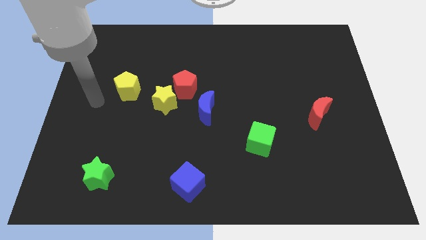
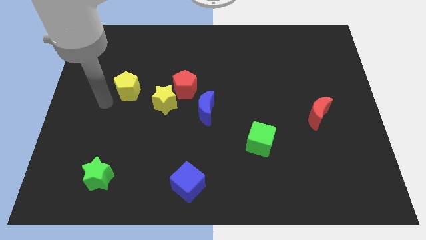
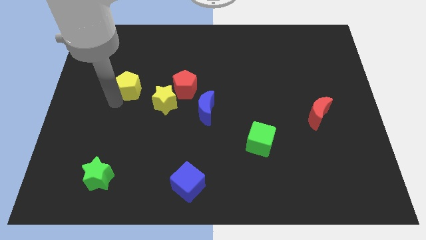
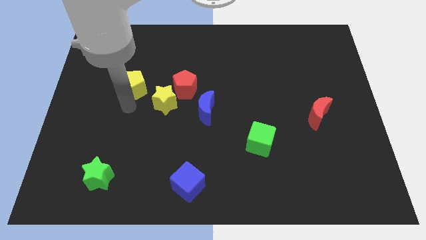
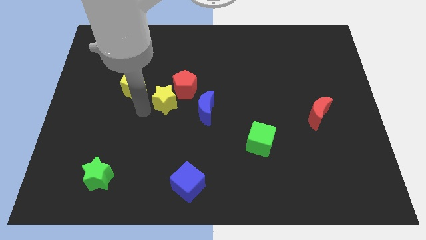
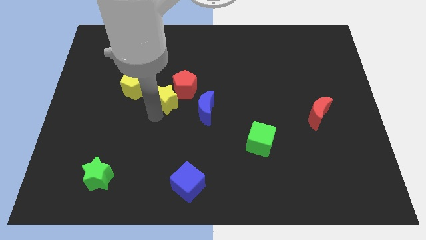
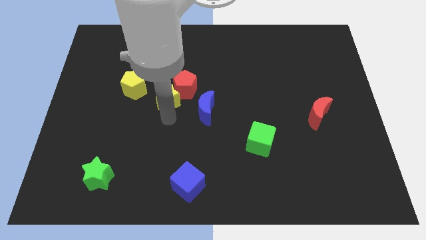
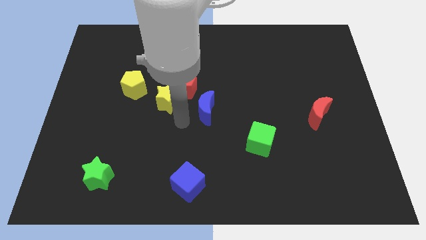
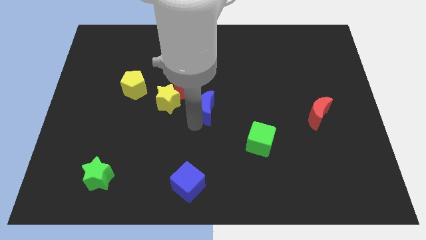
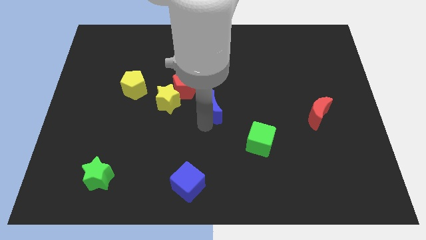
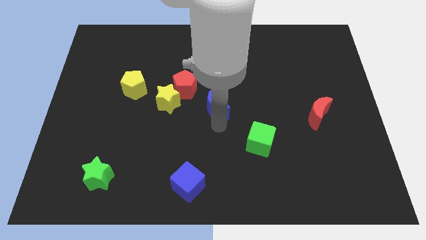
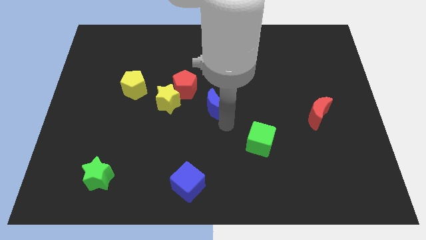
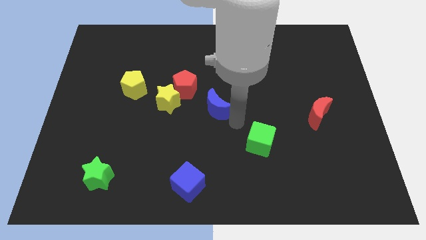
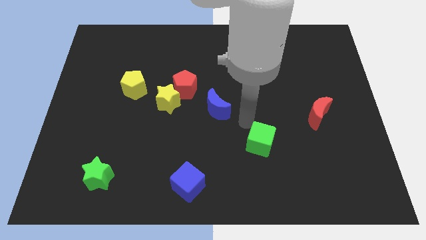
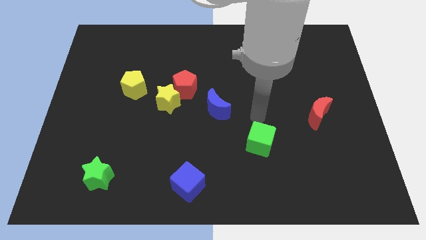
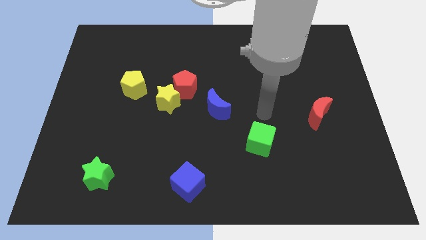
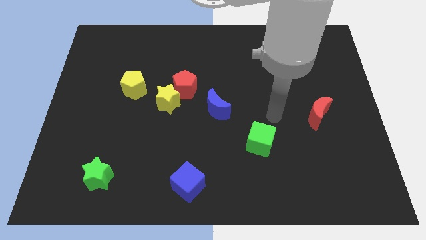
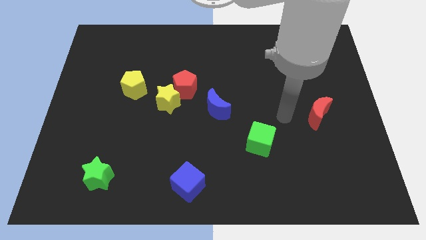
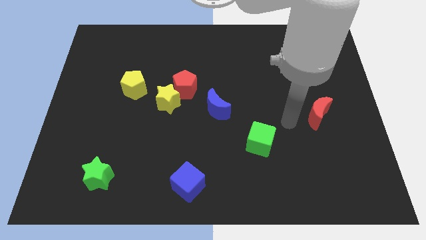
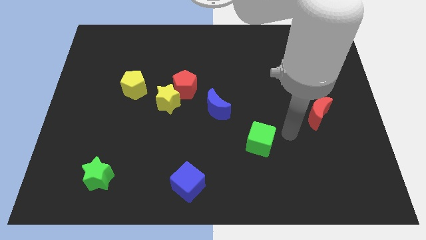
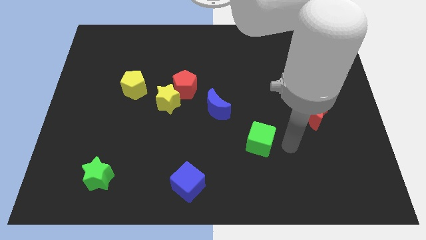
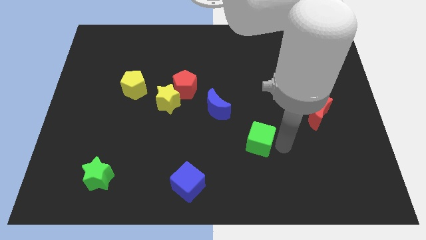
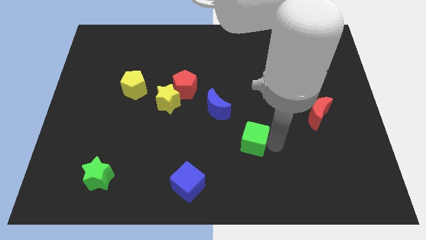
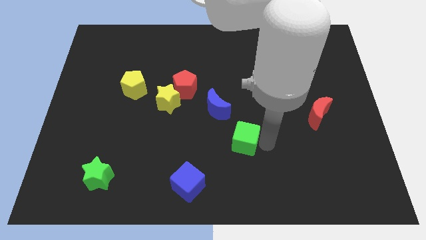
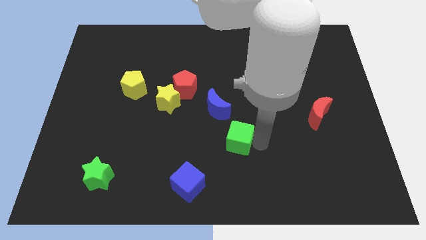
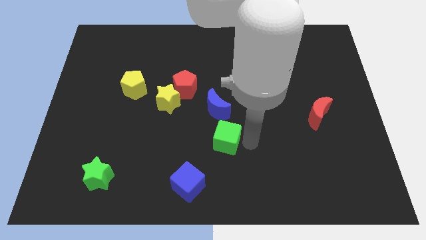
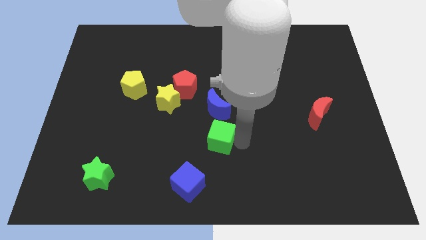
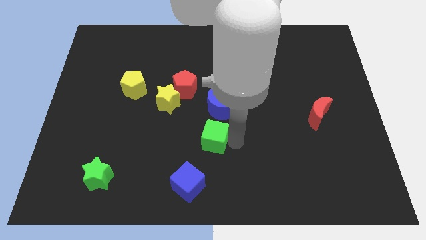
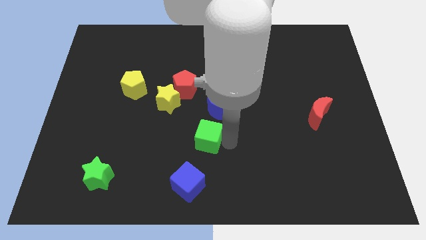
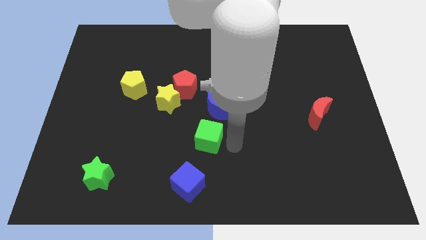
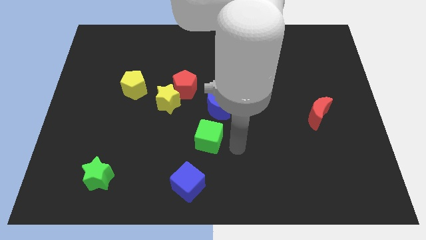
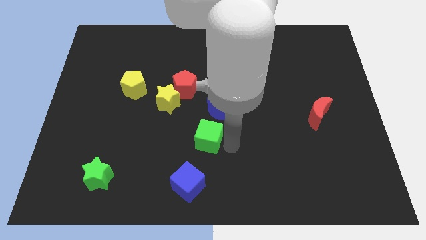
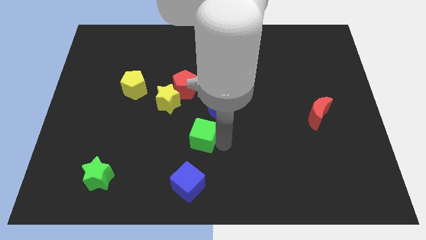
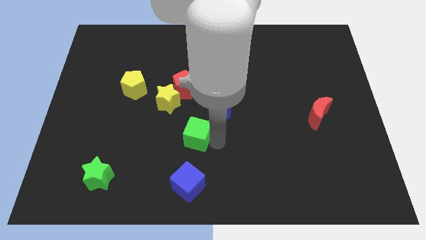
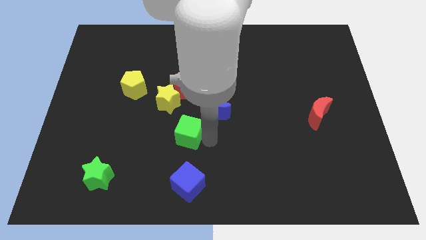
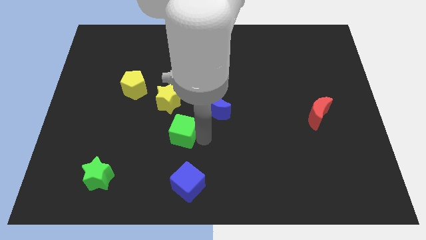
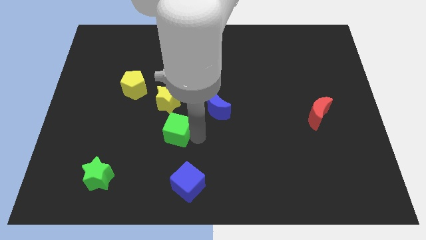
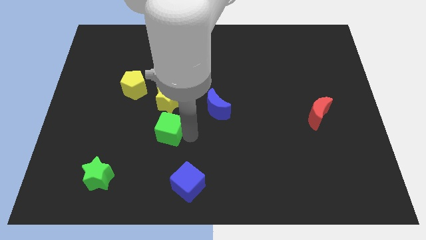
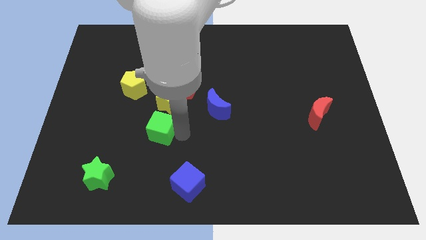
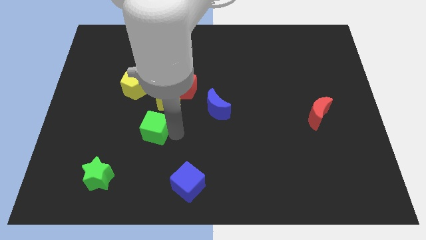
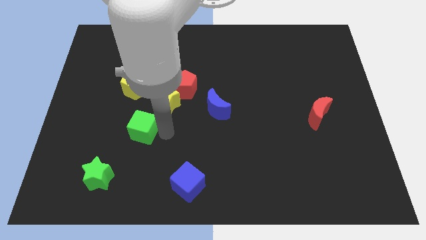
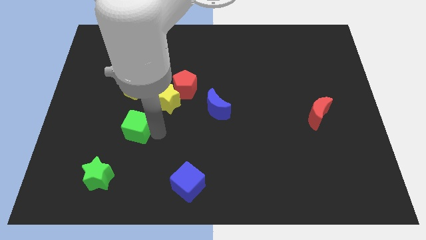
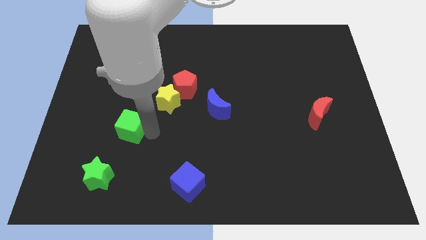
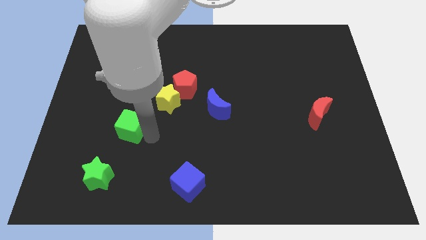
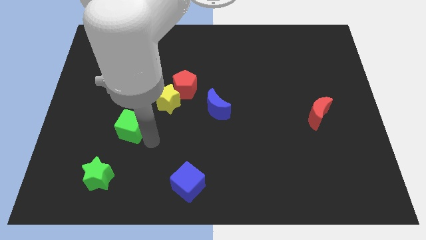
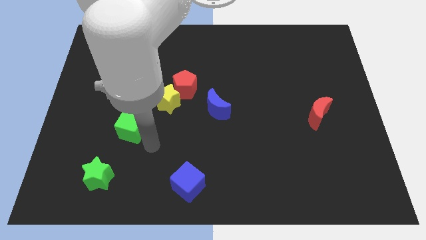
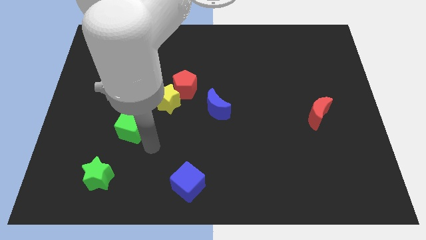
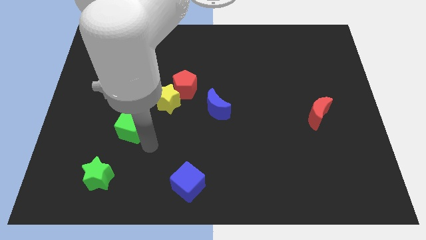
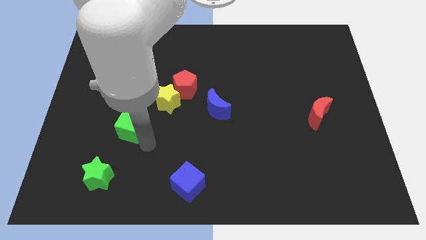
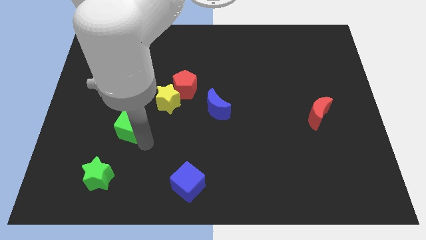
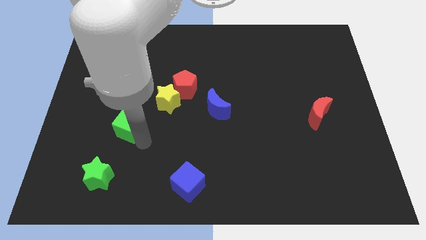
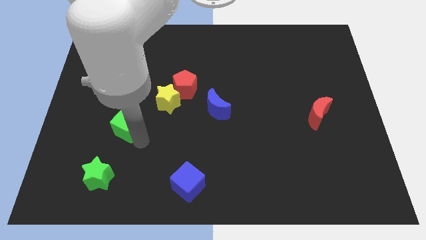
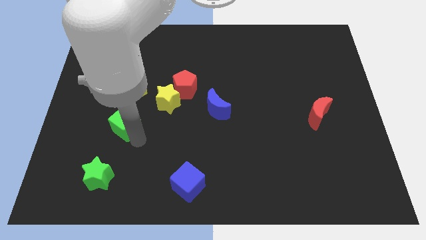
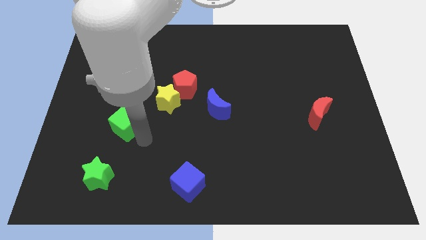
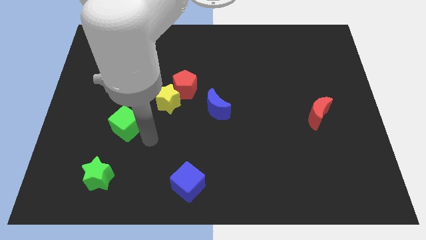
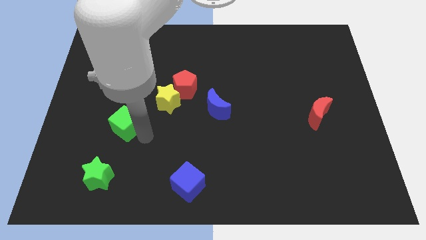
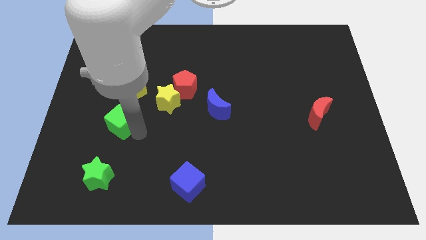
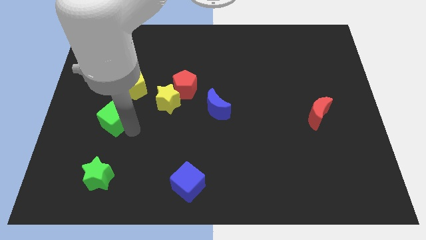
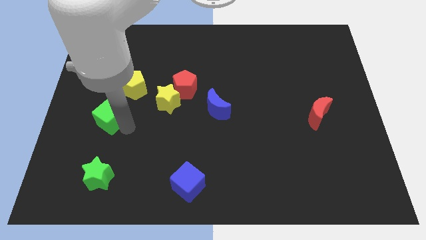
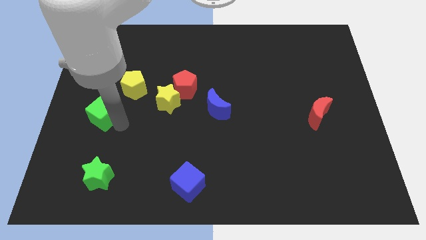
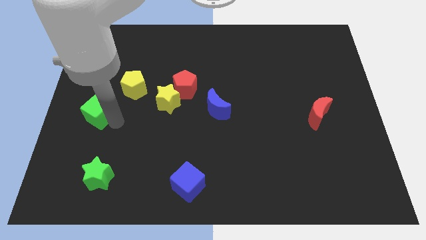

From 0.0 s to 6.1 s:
put the green cube to the center left
